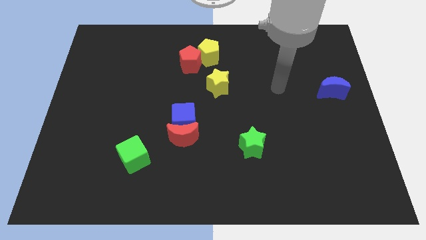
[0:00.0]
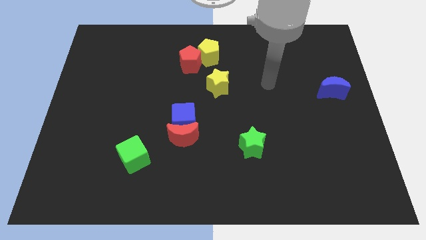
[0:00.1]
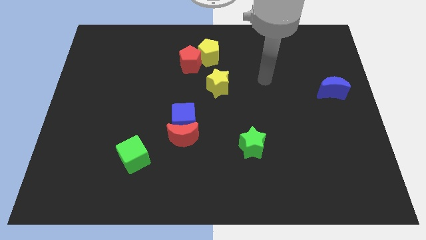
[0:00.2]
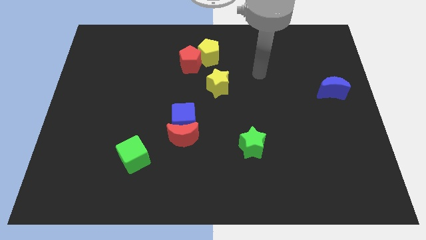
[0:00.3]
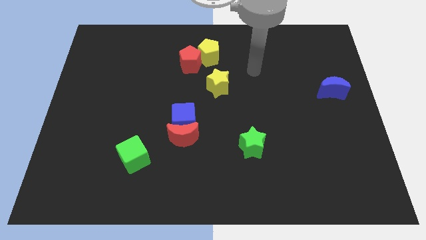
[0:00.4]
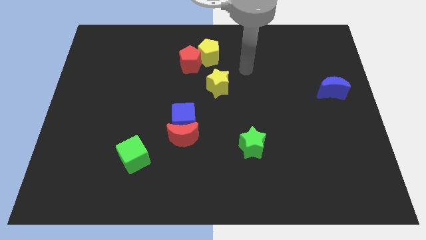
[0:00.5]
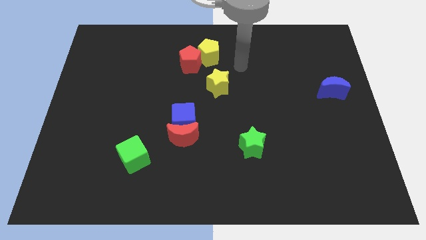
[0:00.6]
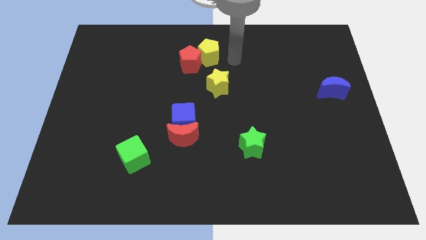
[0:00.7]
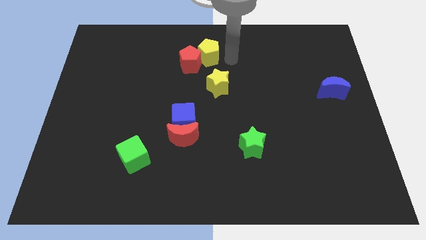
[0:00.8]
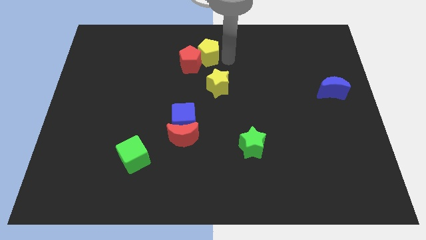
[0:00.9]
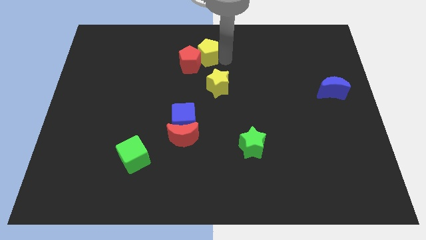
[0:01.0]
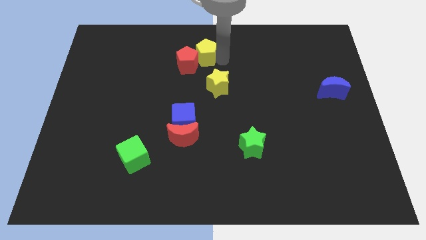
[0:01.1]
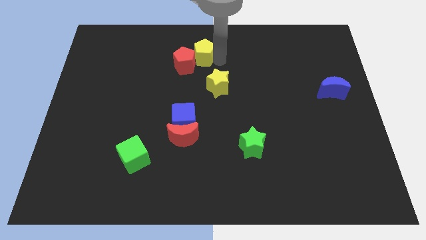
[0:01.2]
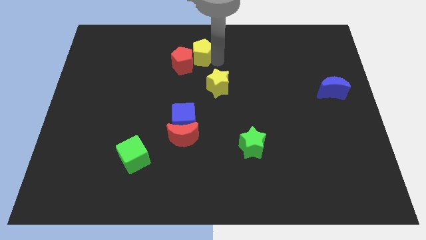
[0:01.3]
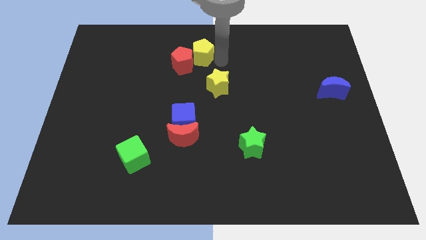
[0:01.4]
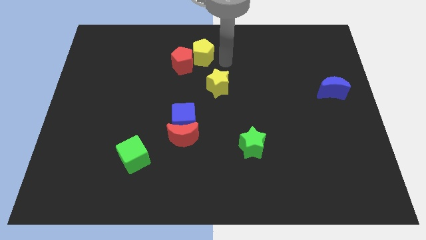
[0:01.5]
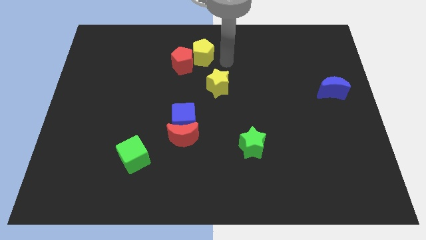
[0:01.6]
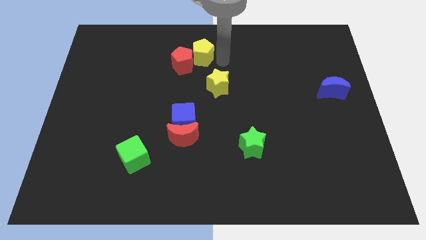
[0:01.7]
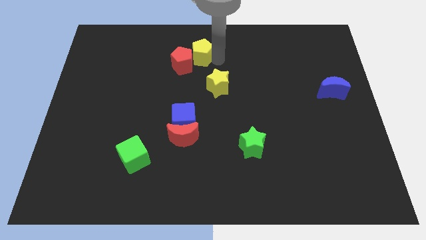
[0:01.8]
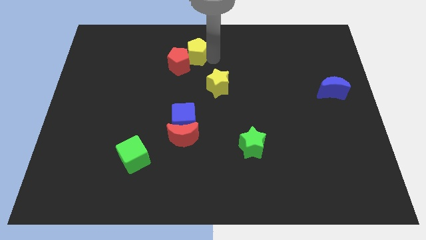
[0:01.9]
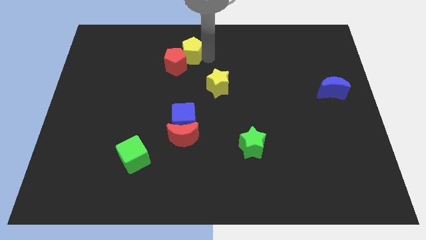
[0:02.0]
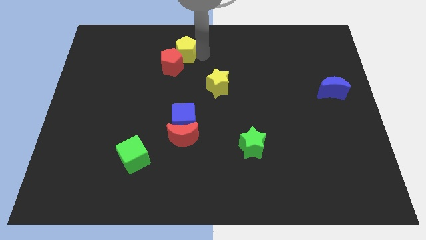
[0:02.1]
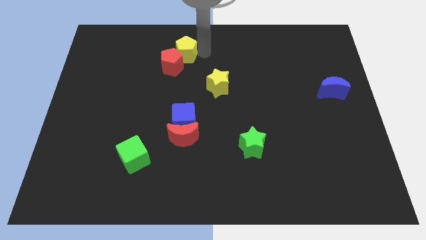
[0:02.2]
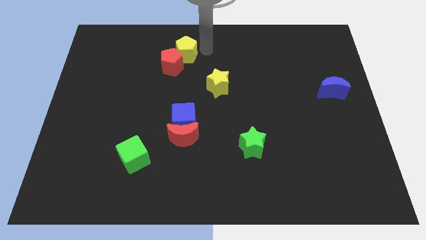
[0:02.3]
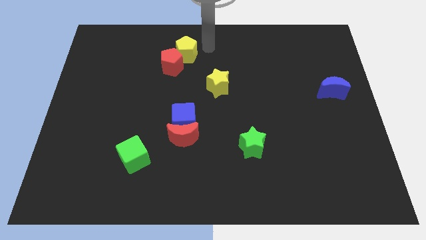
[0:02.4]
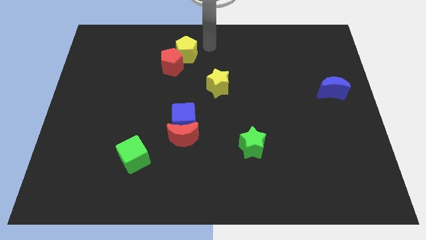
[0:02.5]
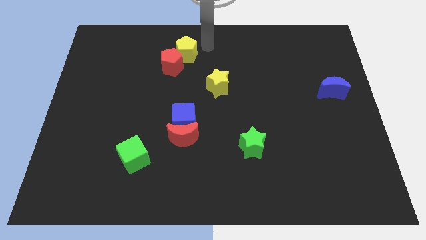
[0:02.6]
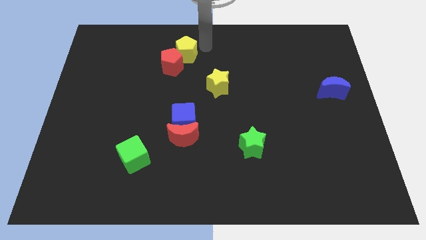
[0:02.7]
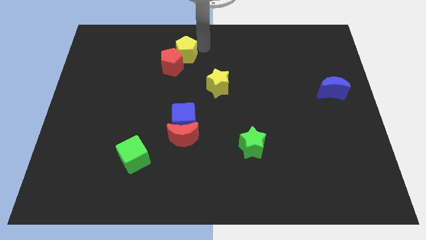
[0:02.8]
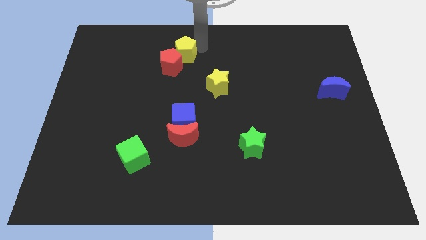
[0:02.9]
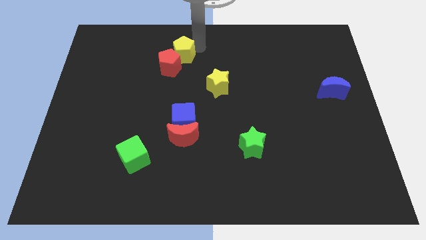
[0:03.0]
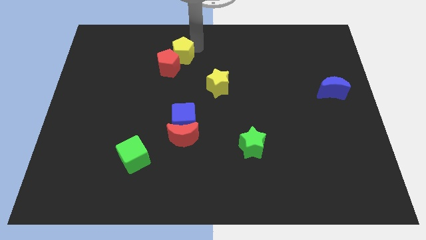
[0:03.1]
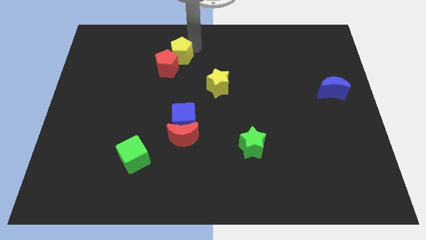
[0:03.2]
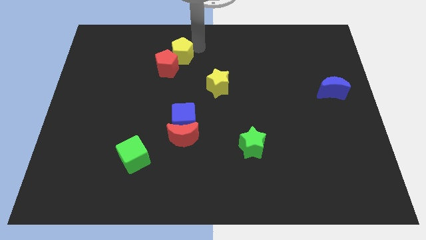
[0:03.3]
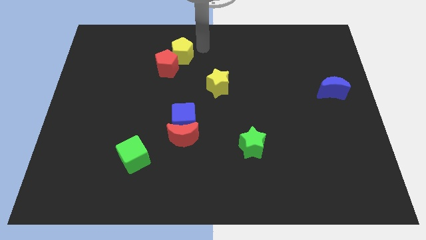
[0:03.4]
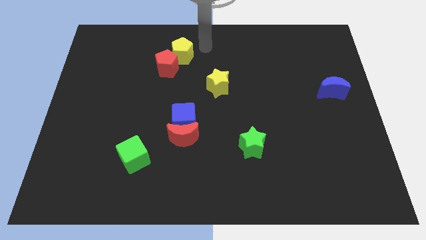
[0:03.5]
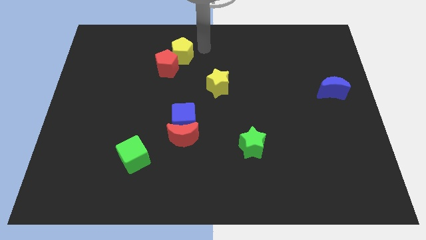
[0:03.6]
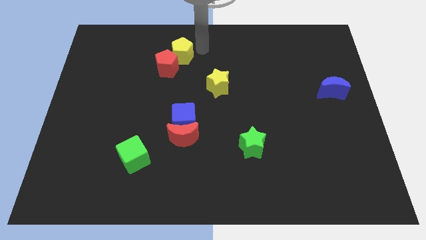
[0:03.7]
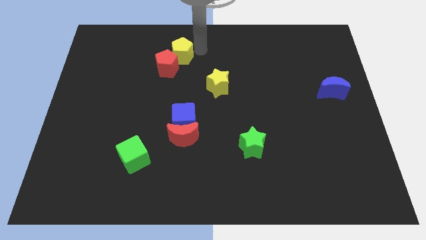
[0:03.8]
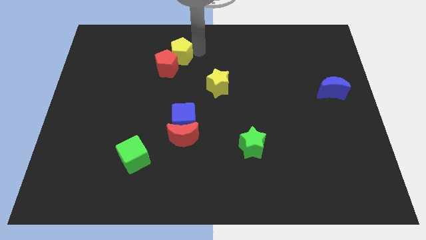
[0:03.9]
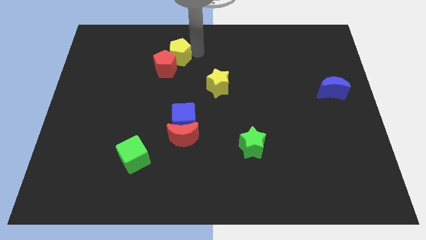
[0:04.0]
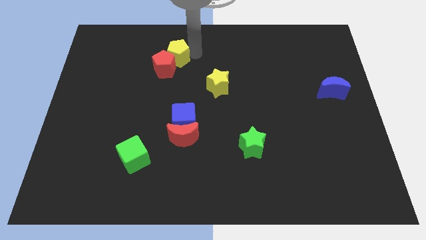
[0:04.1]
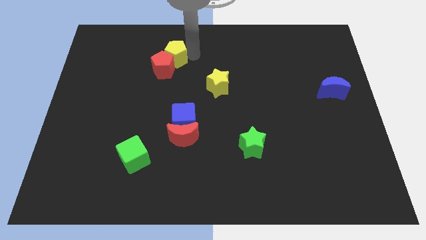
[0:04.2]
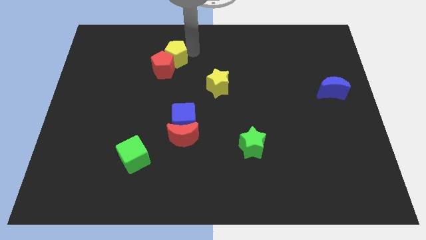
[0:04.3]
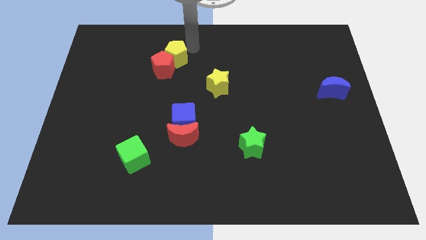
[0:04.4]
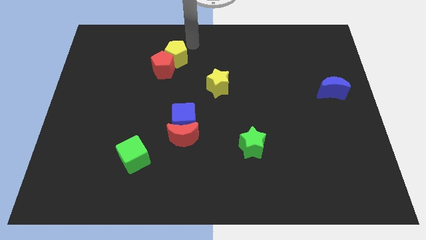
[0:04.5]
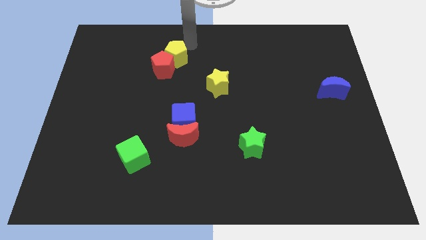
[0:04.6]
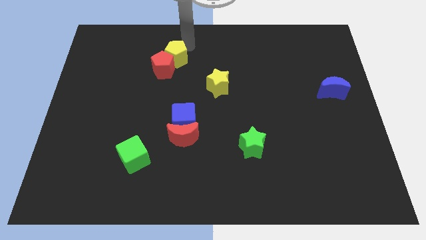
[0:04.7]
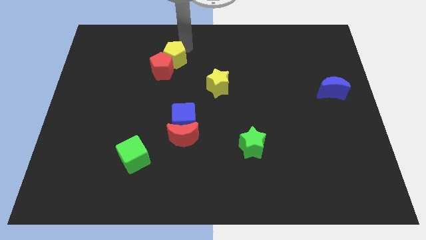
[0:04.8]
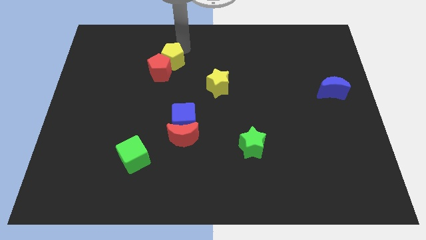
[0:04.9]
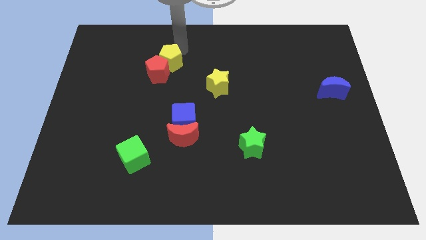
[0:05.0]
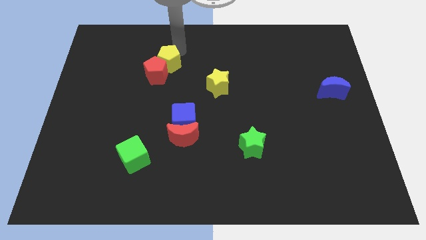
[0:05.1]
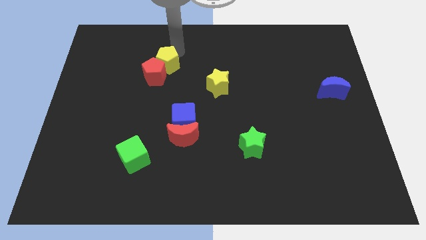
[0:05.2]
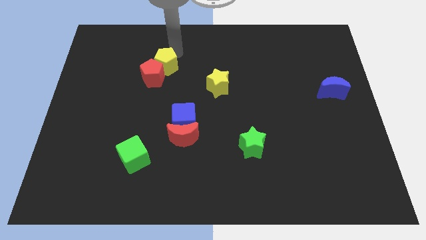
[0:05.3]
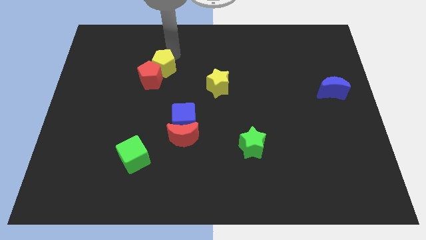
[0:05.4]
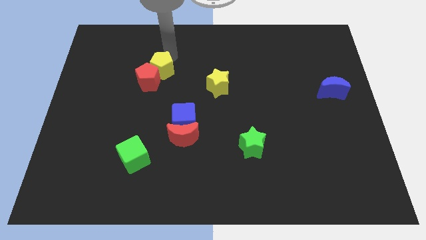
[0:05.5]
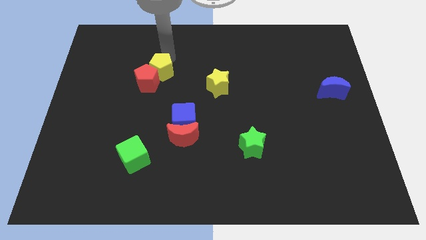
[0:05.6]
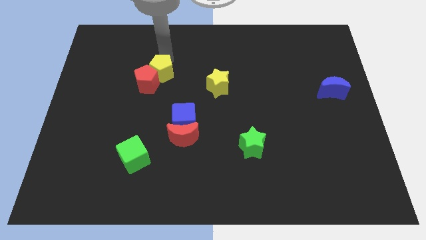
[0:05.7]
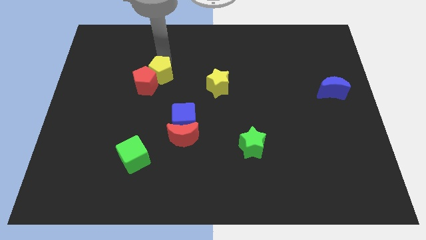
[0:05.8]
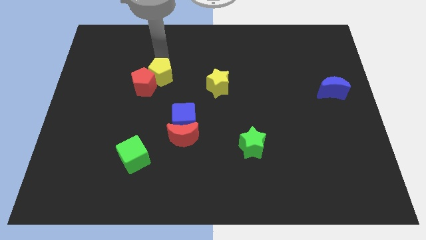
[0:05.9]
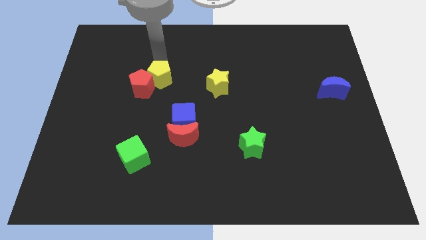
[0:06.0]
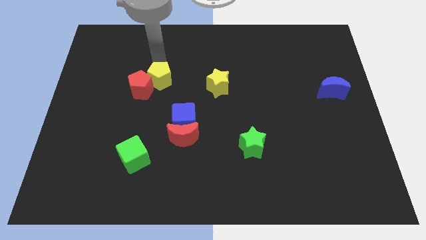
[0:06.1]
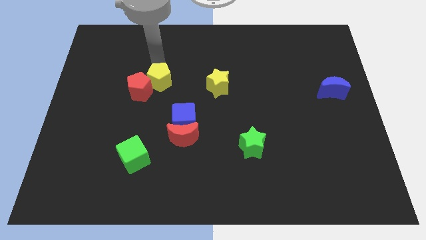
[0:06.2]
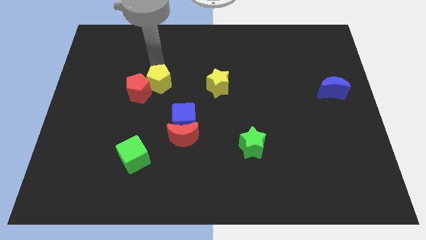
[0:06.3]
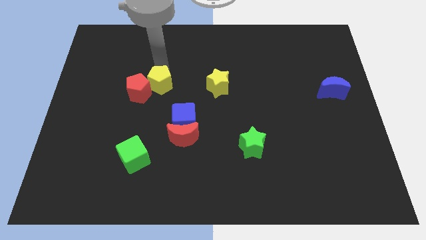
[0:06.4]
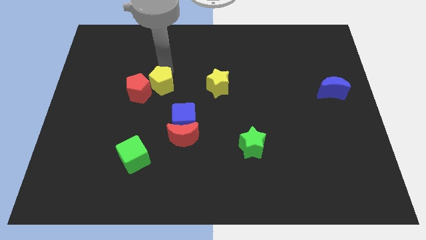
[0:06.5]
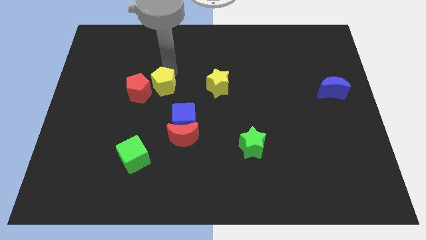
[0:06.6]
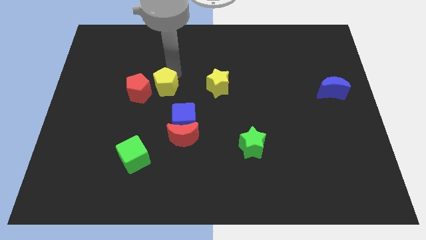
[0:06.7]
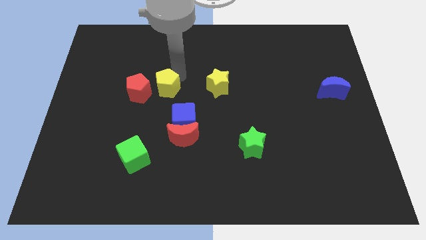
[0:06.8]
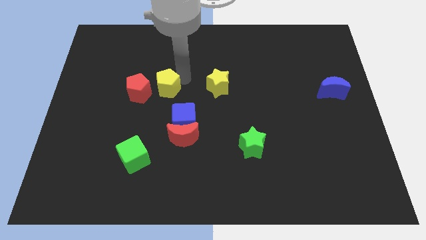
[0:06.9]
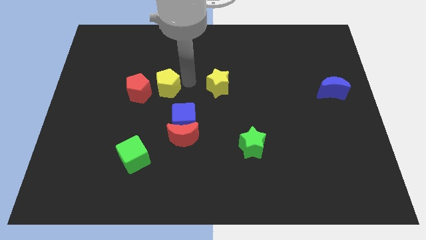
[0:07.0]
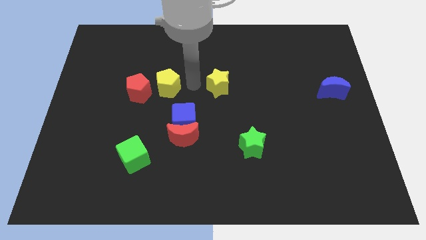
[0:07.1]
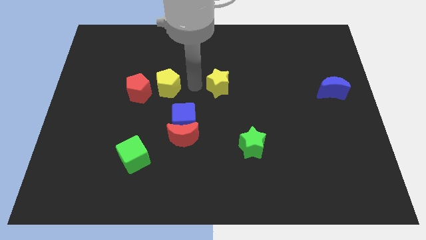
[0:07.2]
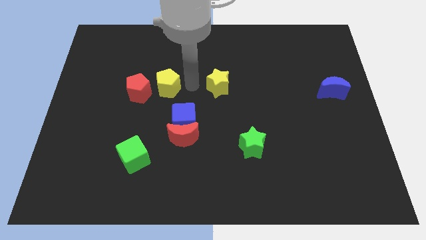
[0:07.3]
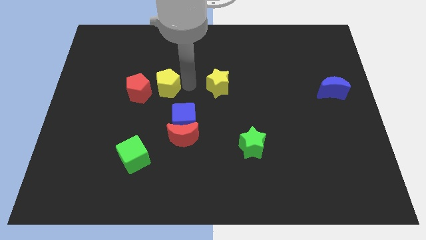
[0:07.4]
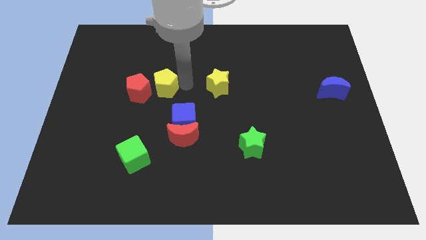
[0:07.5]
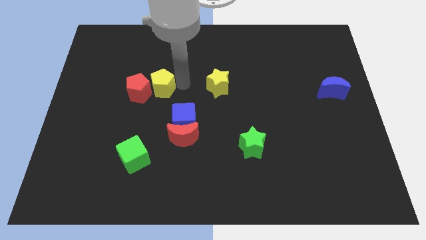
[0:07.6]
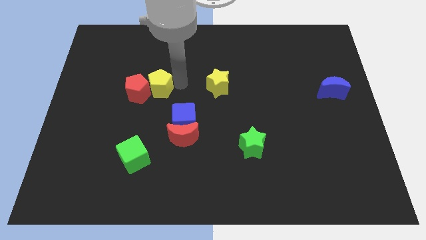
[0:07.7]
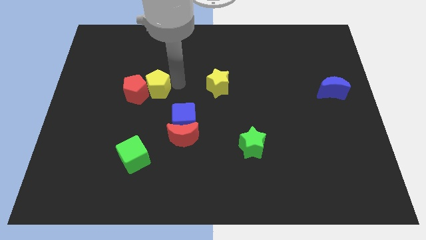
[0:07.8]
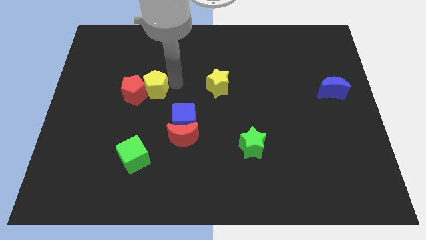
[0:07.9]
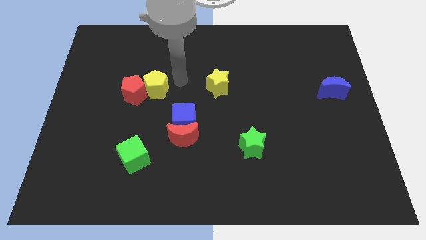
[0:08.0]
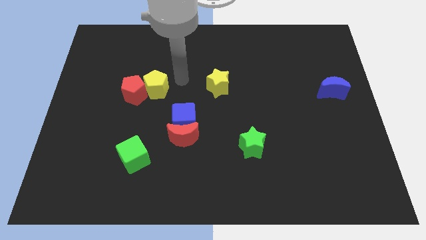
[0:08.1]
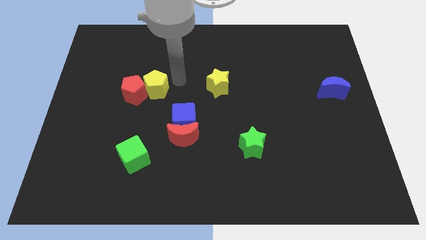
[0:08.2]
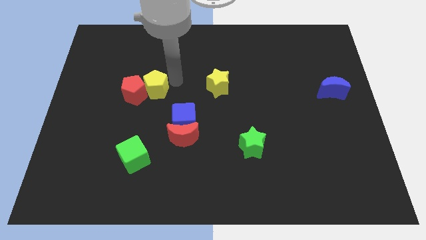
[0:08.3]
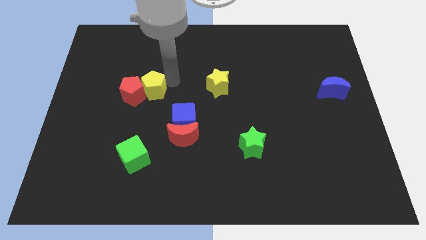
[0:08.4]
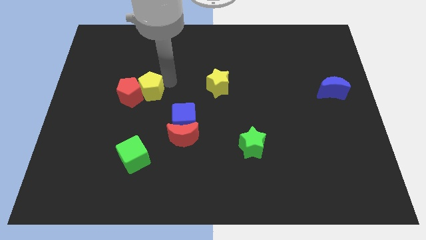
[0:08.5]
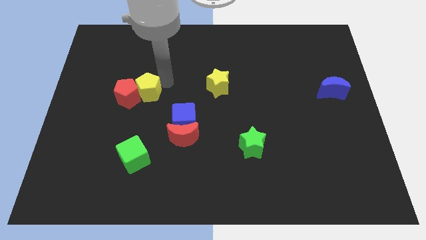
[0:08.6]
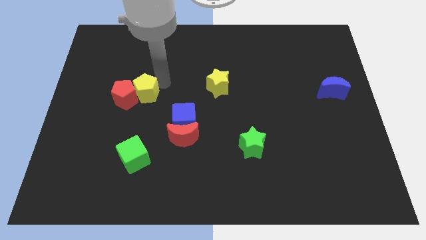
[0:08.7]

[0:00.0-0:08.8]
slide the yellow pentagon down and to the left diagonally
